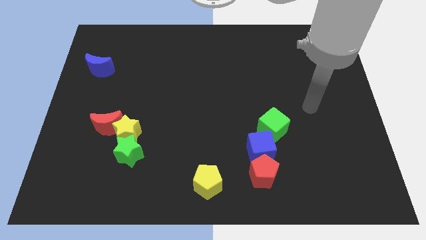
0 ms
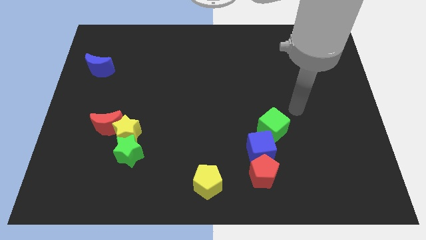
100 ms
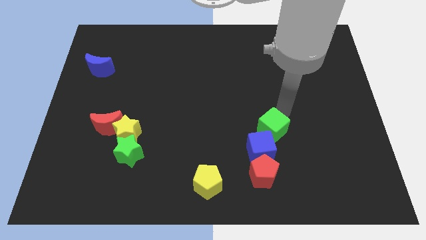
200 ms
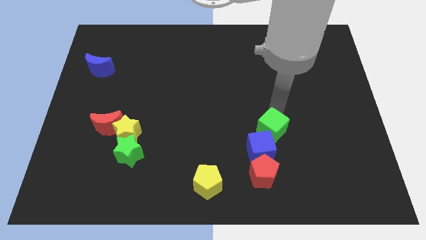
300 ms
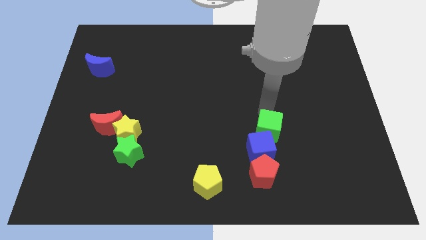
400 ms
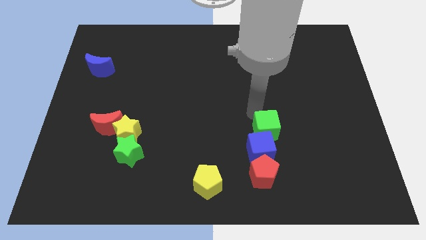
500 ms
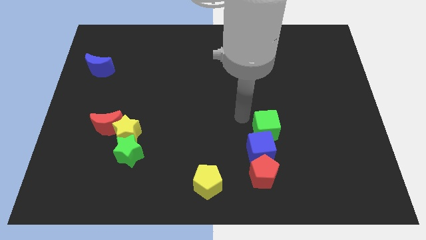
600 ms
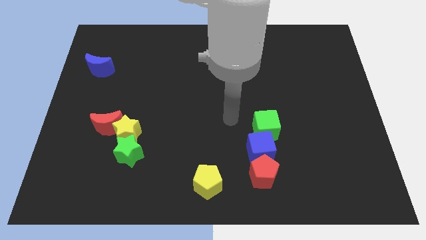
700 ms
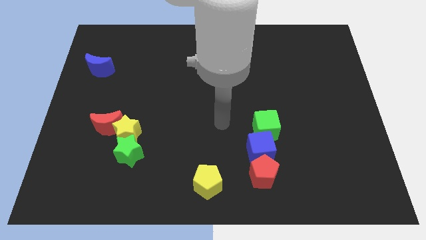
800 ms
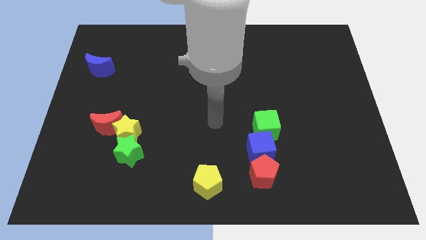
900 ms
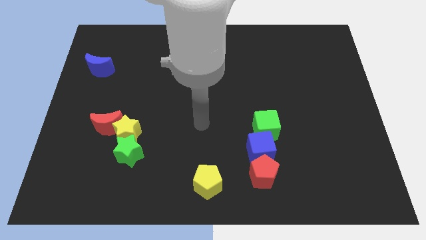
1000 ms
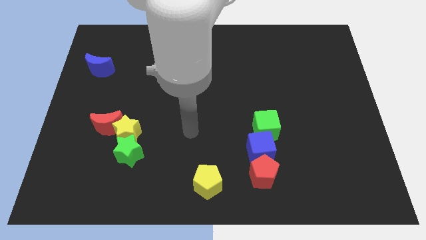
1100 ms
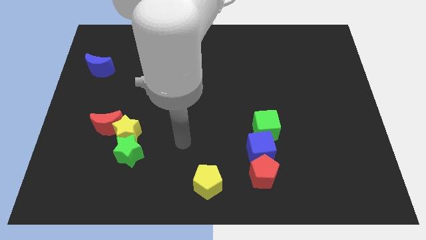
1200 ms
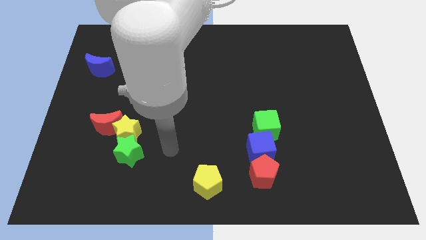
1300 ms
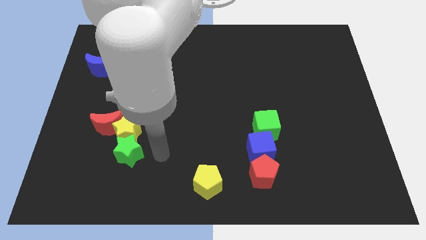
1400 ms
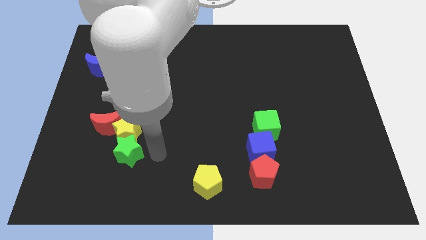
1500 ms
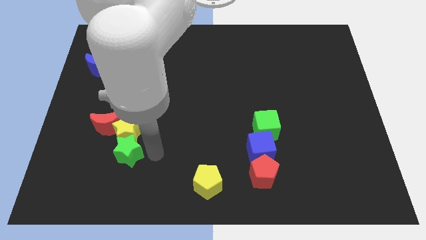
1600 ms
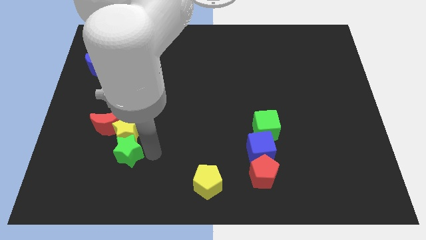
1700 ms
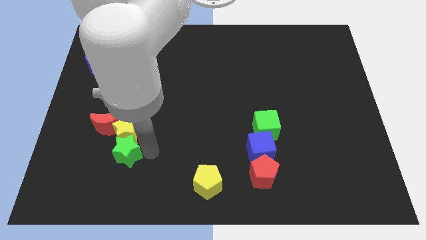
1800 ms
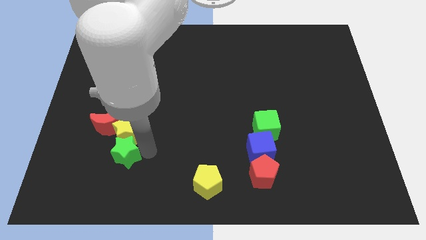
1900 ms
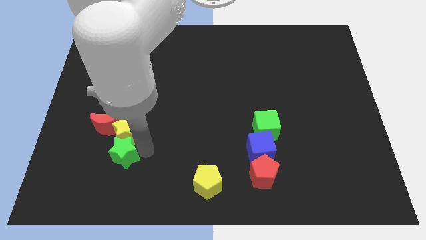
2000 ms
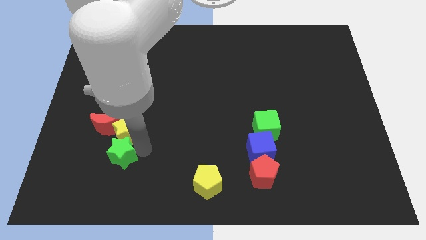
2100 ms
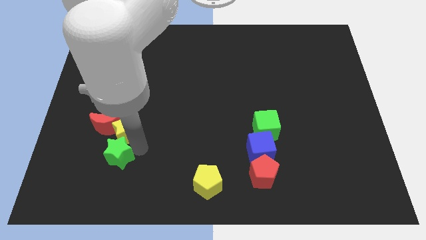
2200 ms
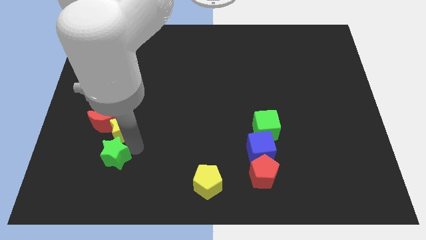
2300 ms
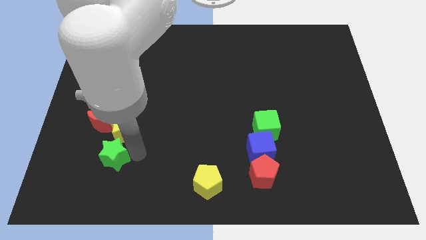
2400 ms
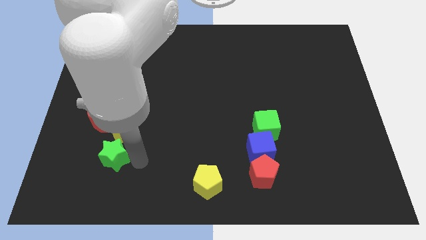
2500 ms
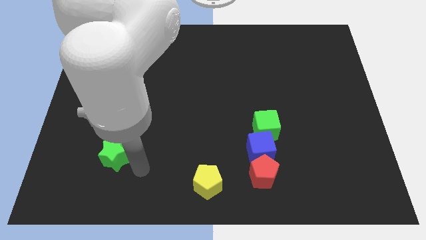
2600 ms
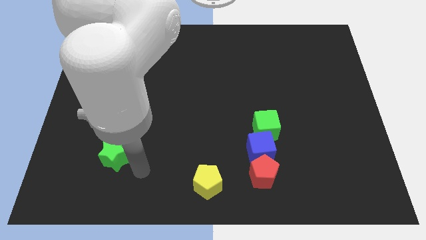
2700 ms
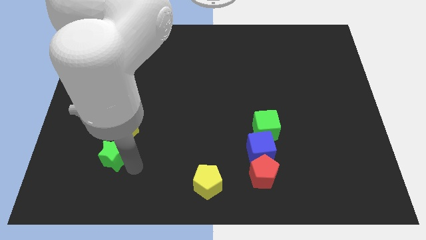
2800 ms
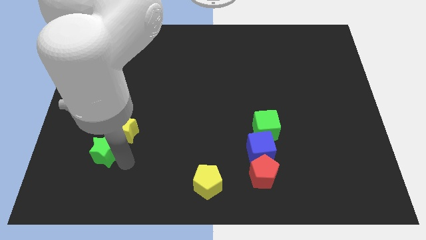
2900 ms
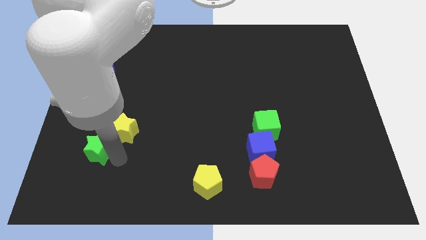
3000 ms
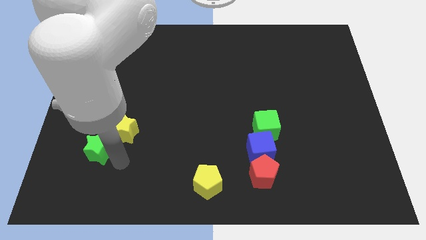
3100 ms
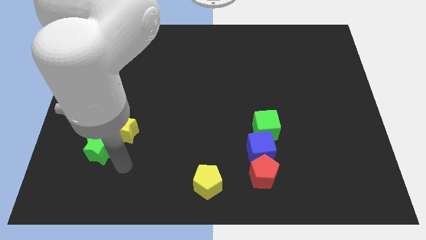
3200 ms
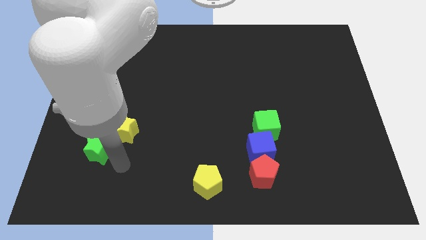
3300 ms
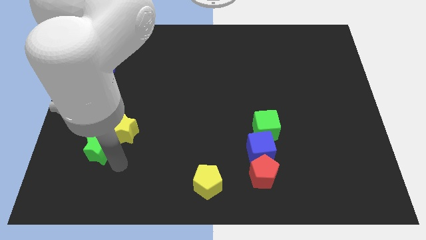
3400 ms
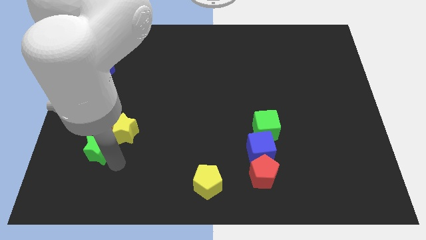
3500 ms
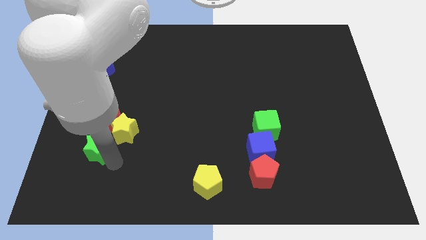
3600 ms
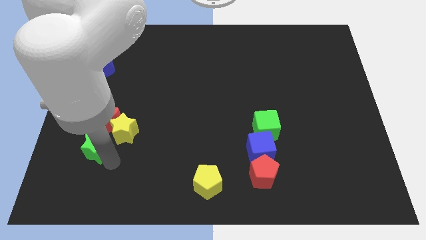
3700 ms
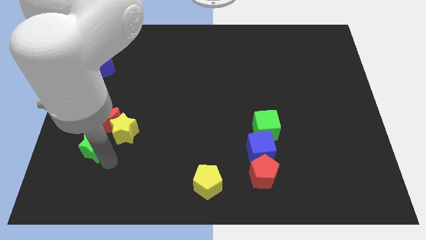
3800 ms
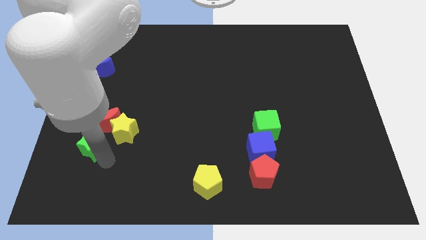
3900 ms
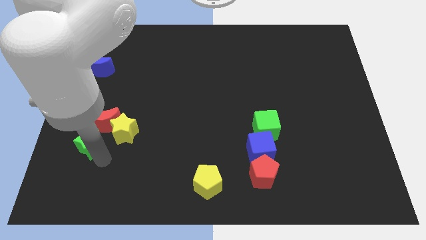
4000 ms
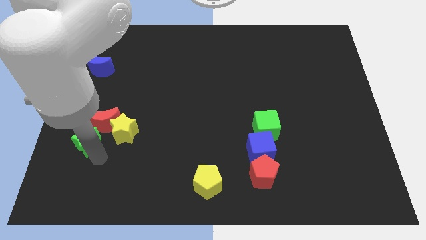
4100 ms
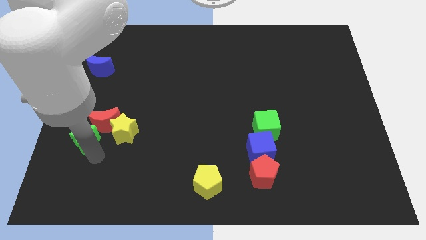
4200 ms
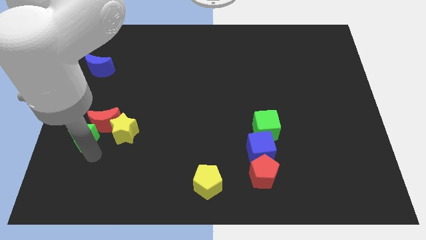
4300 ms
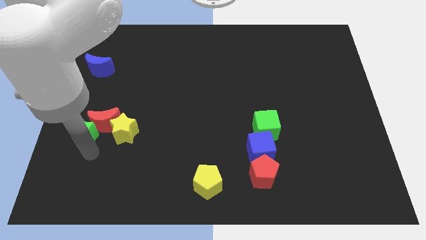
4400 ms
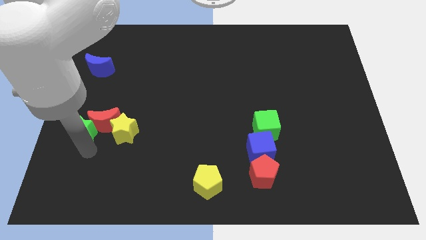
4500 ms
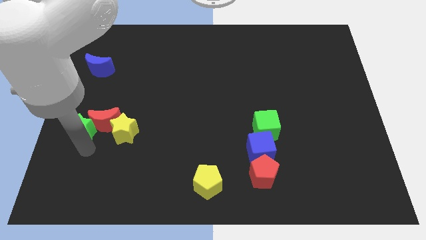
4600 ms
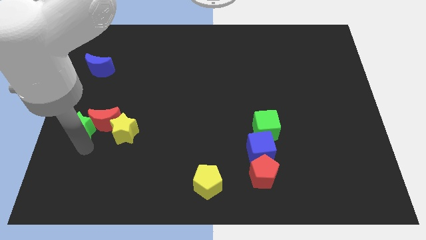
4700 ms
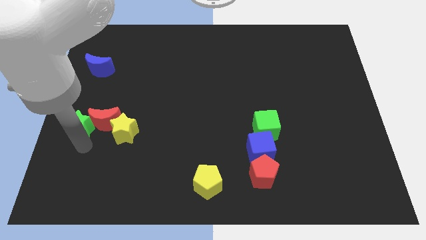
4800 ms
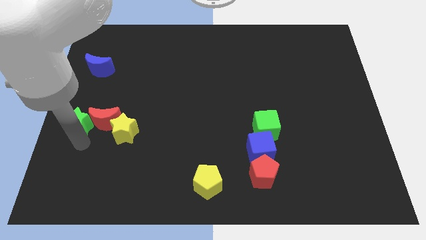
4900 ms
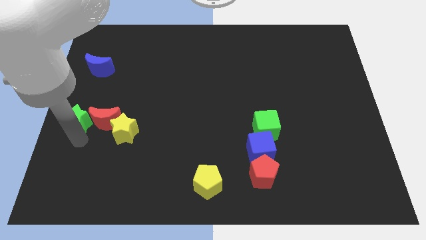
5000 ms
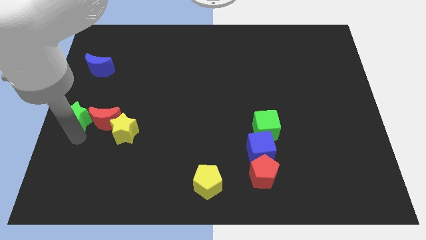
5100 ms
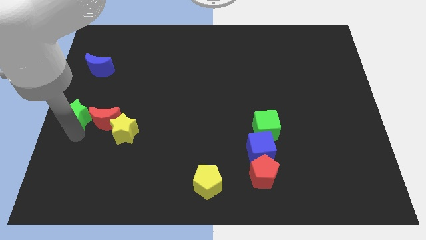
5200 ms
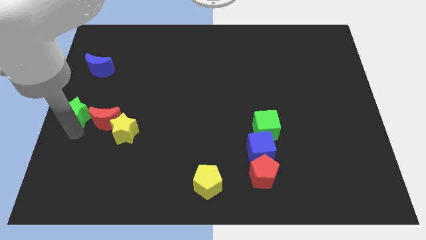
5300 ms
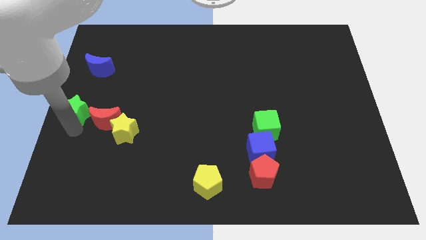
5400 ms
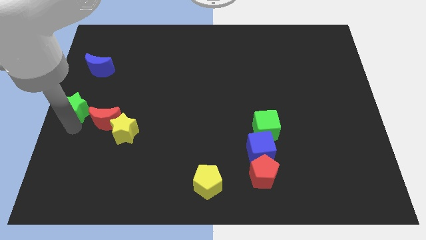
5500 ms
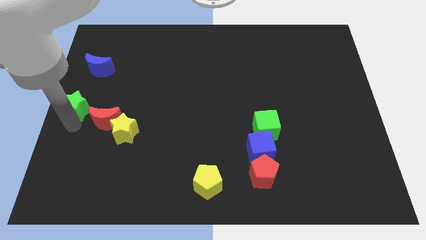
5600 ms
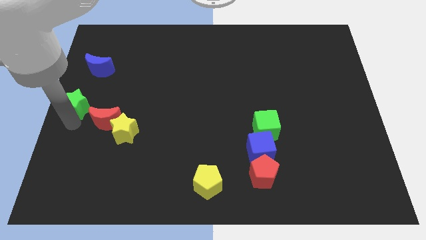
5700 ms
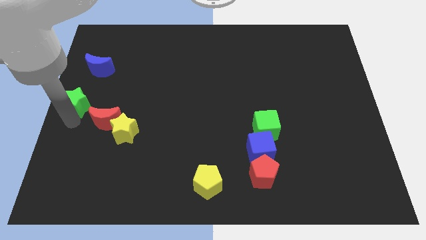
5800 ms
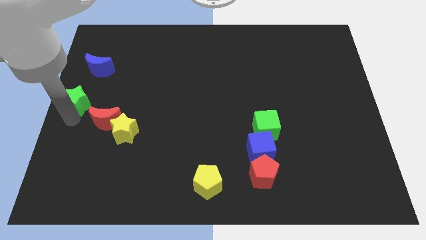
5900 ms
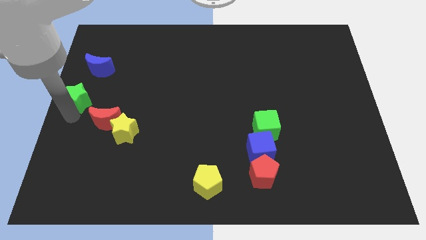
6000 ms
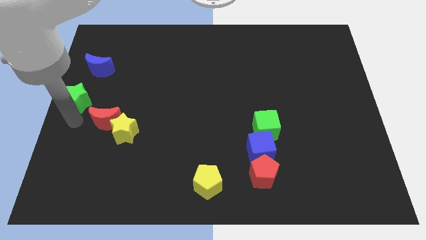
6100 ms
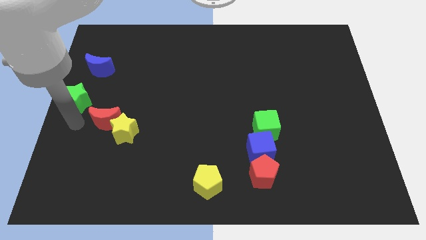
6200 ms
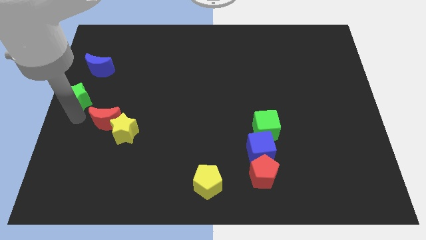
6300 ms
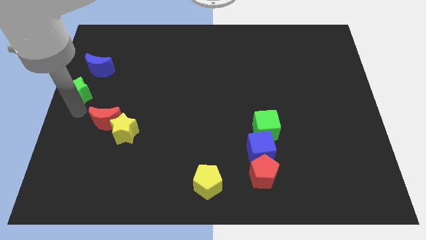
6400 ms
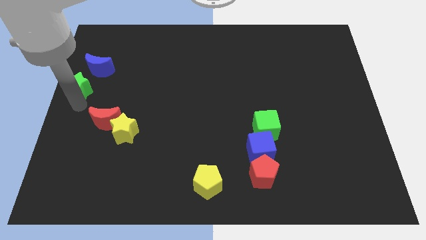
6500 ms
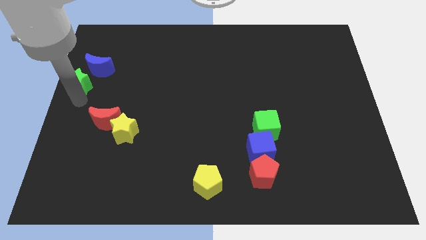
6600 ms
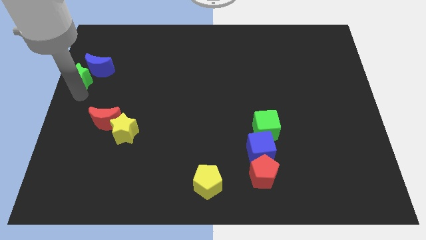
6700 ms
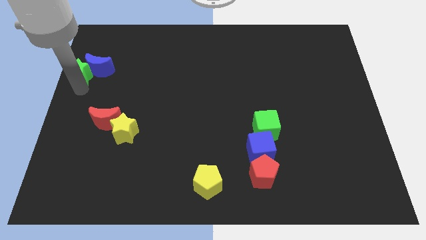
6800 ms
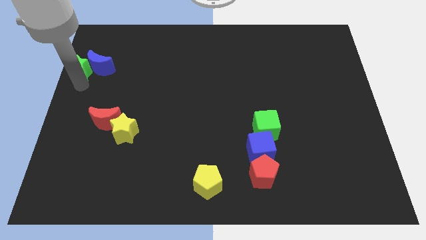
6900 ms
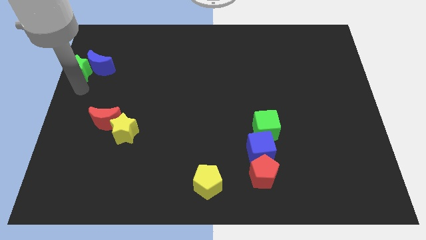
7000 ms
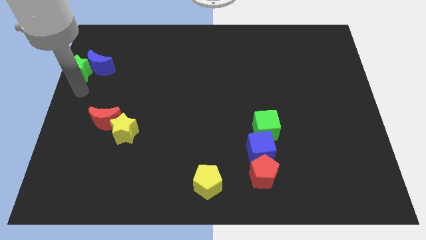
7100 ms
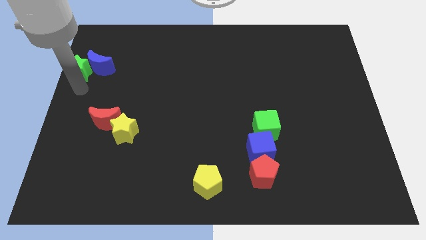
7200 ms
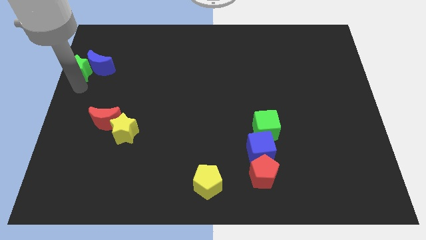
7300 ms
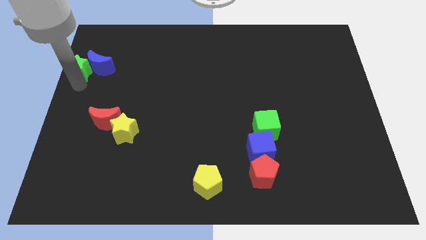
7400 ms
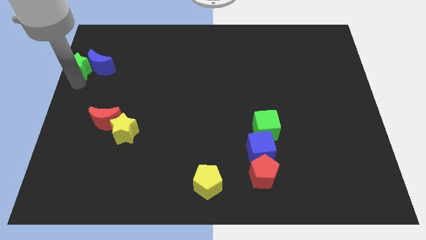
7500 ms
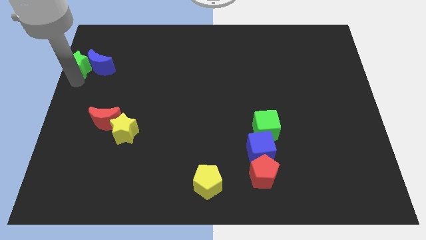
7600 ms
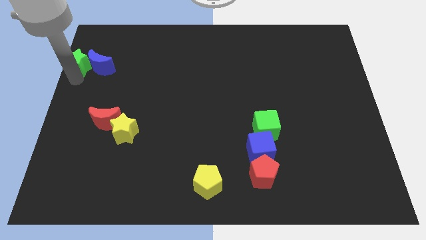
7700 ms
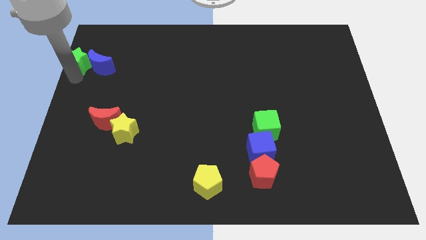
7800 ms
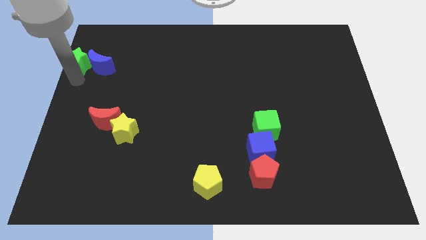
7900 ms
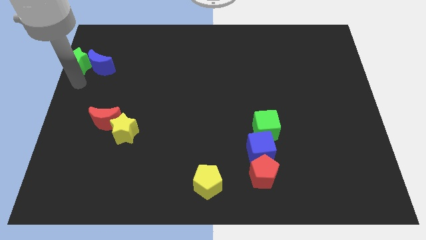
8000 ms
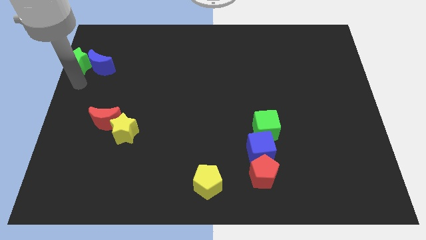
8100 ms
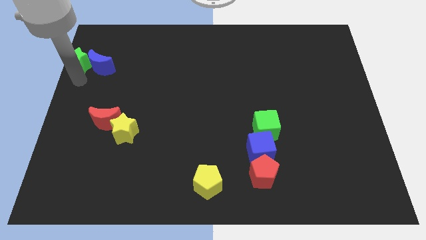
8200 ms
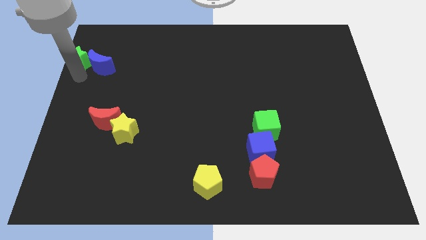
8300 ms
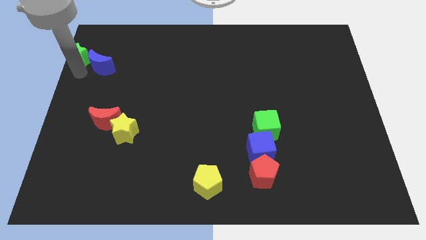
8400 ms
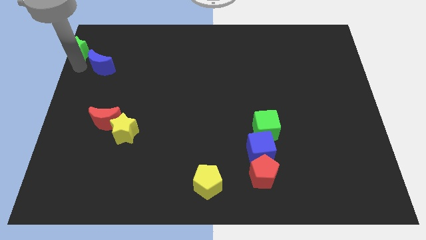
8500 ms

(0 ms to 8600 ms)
push the green star to the top left
